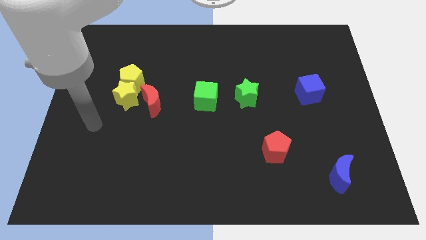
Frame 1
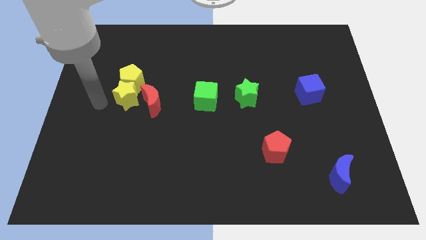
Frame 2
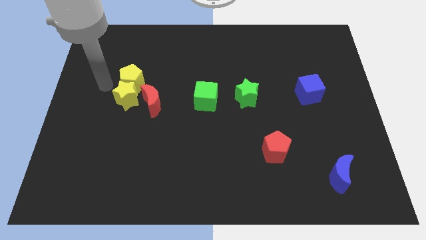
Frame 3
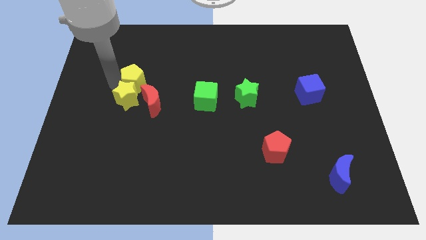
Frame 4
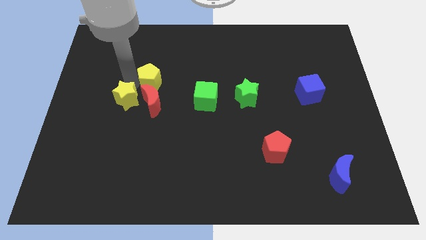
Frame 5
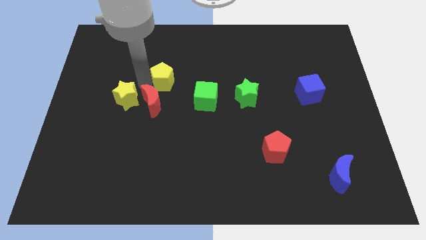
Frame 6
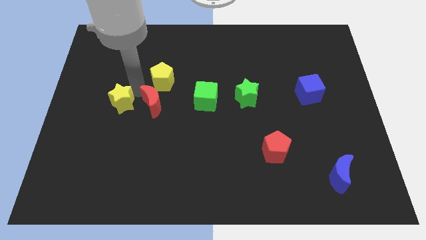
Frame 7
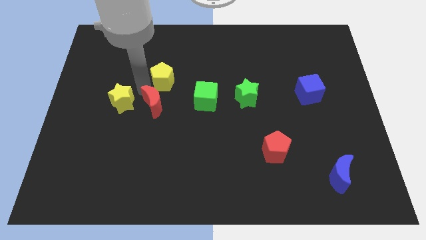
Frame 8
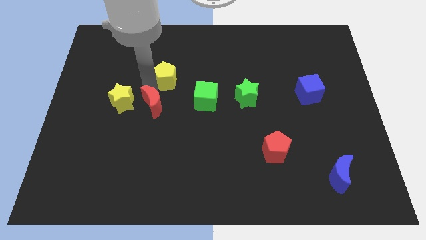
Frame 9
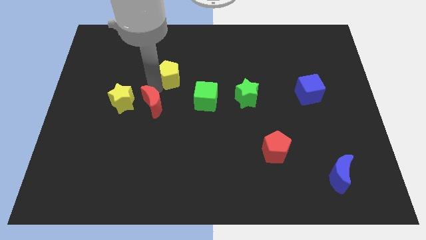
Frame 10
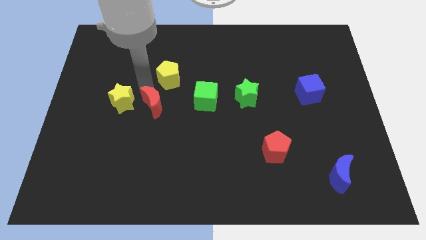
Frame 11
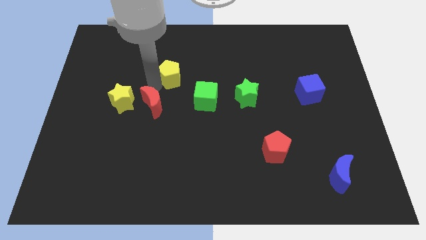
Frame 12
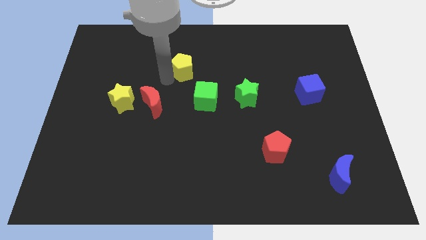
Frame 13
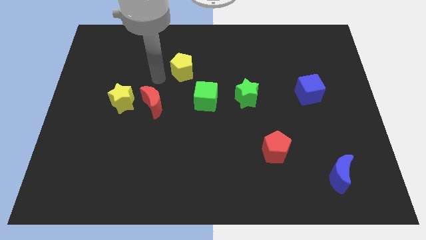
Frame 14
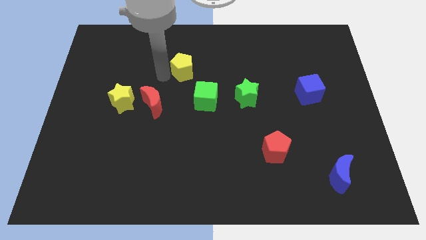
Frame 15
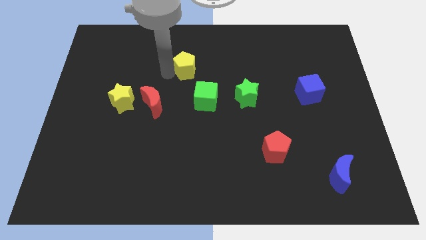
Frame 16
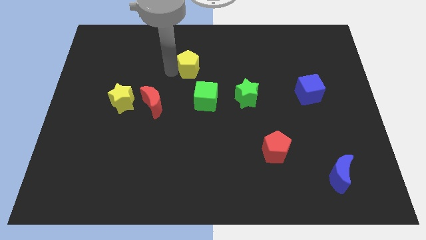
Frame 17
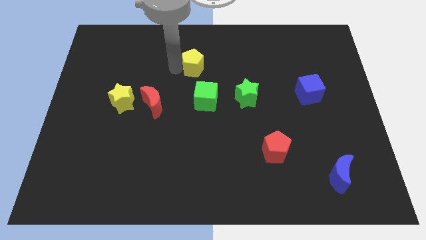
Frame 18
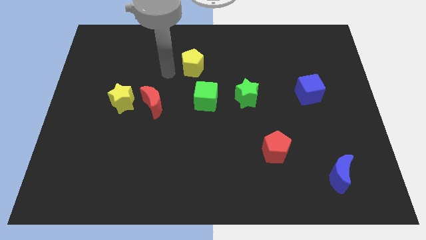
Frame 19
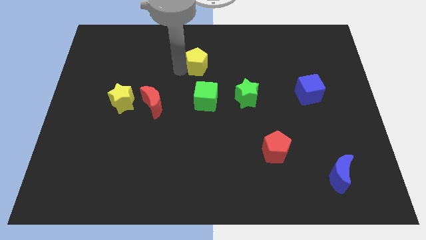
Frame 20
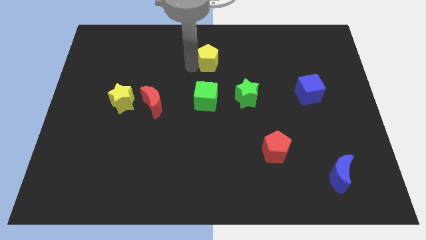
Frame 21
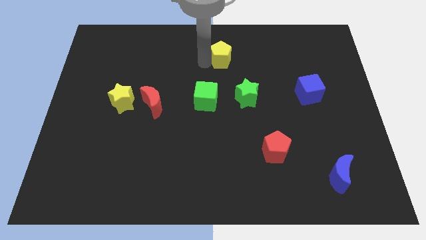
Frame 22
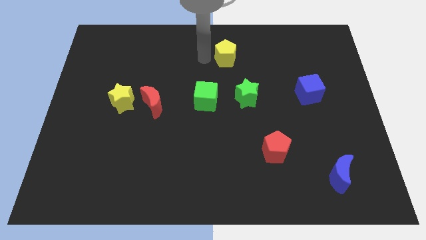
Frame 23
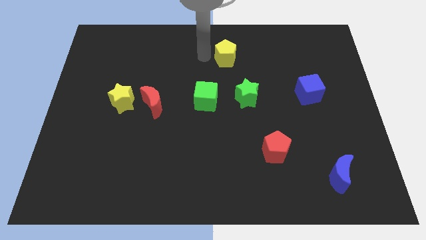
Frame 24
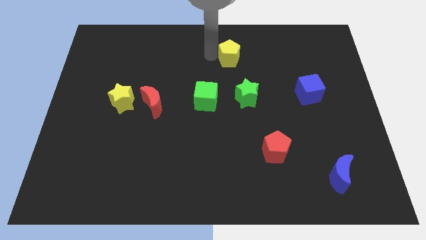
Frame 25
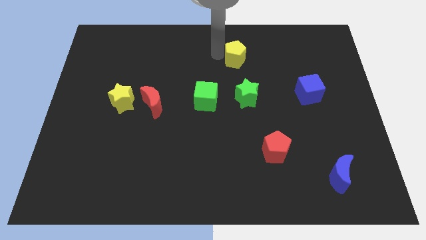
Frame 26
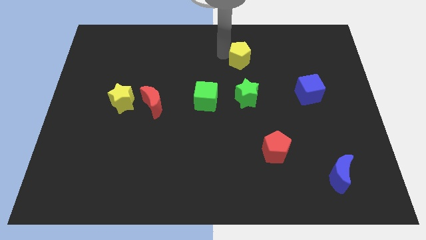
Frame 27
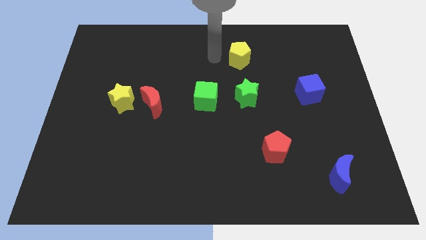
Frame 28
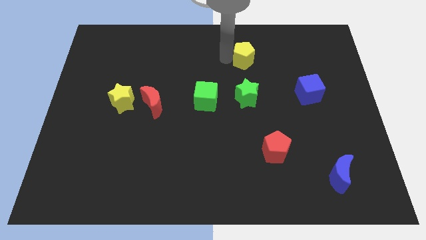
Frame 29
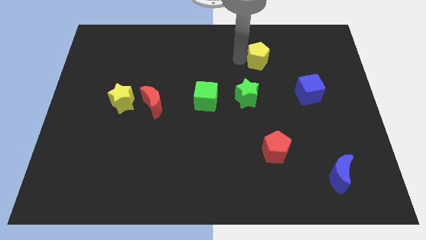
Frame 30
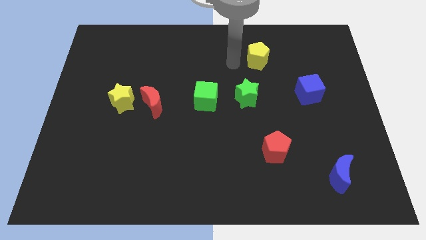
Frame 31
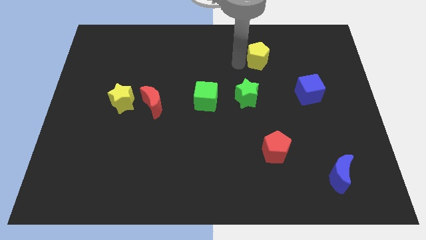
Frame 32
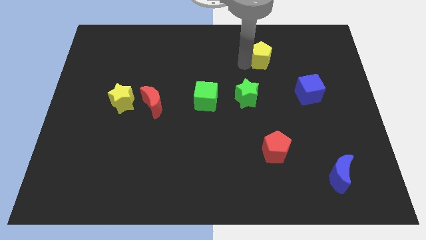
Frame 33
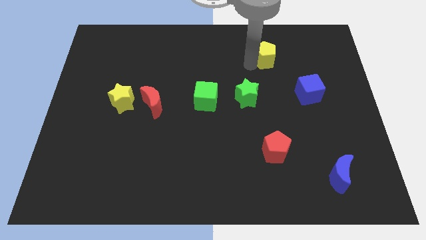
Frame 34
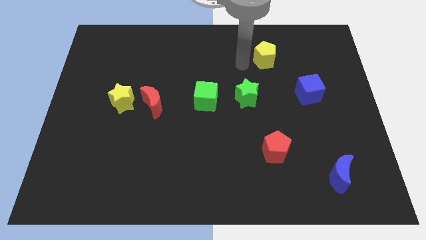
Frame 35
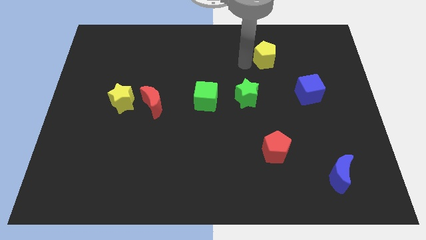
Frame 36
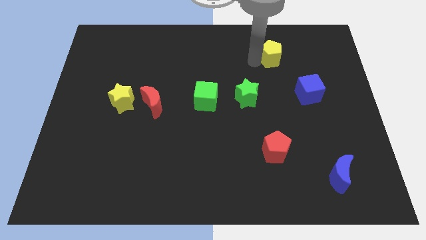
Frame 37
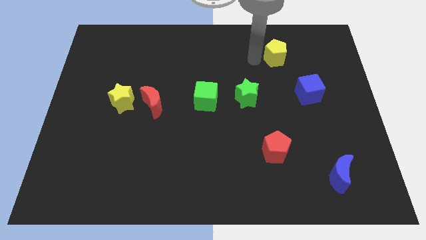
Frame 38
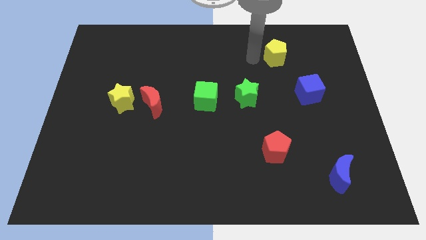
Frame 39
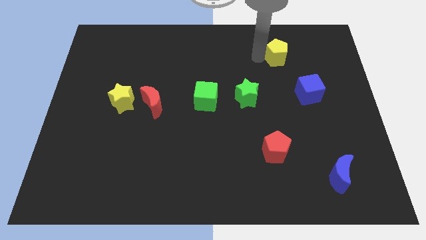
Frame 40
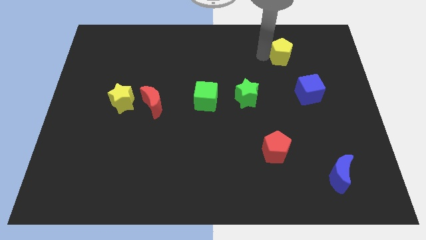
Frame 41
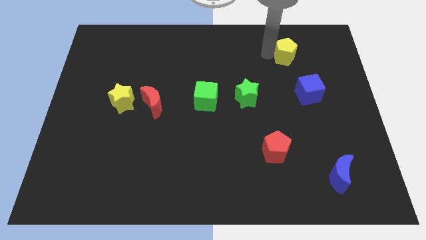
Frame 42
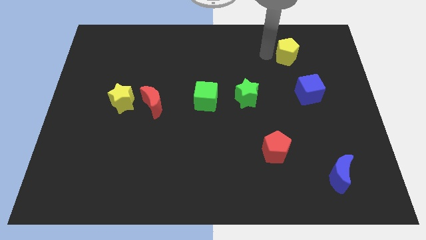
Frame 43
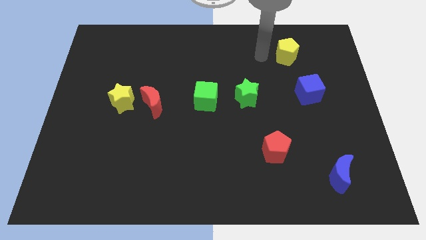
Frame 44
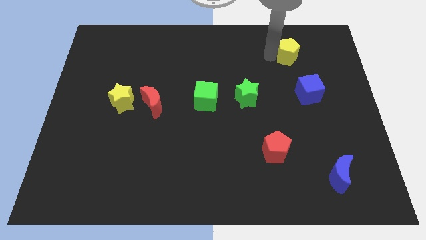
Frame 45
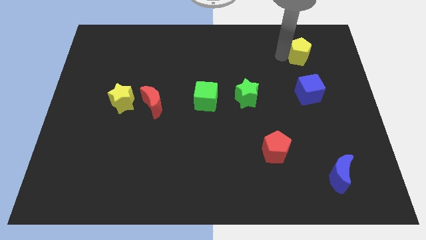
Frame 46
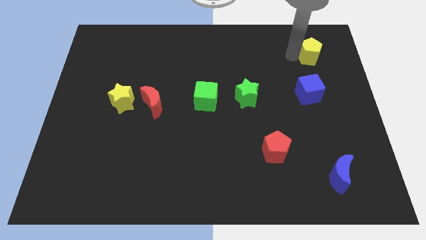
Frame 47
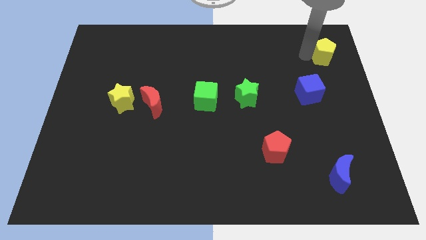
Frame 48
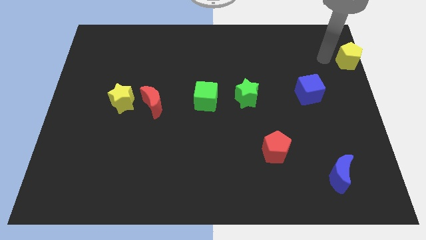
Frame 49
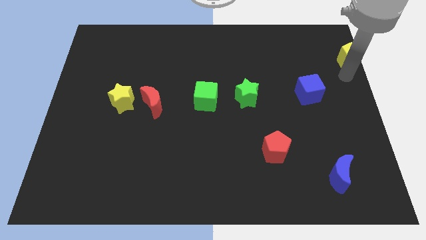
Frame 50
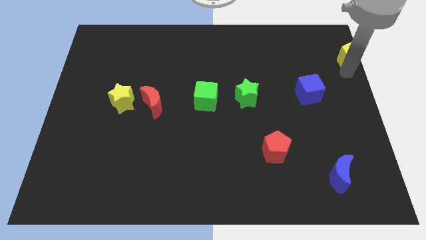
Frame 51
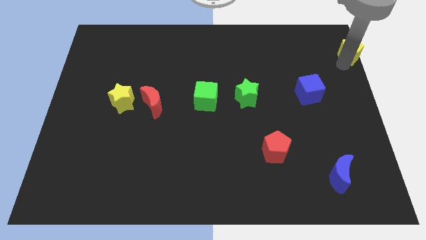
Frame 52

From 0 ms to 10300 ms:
put the yellow pentagon to the top right corner

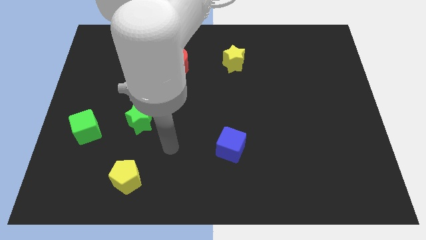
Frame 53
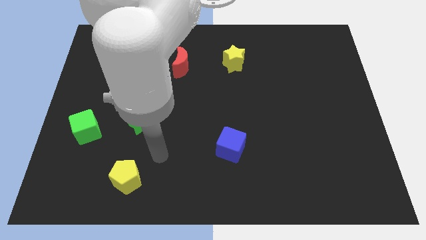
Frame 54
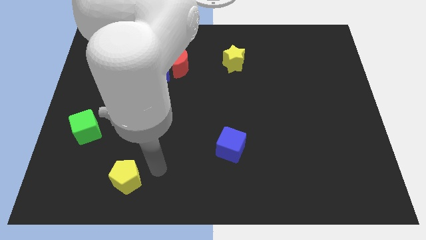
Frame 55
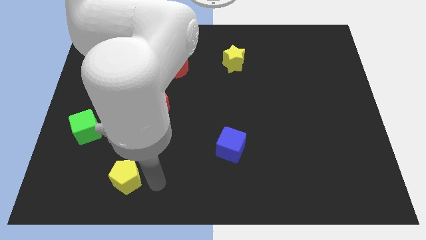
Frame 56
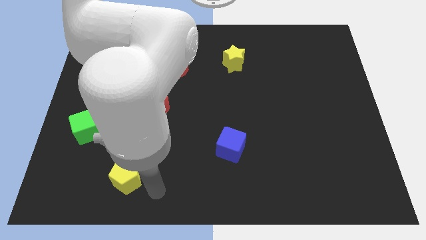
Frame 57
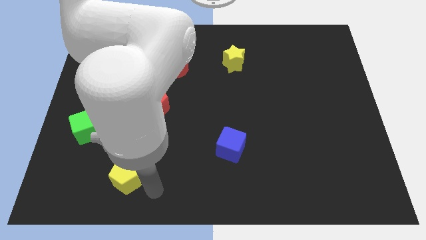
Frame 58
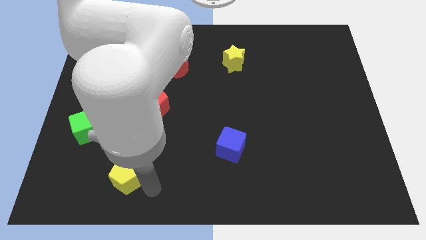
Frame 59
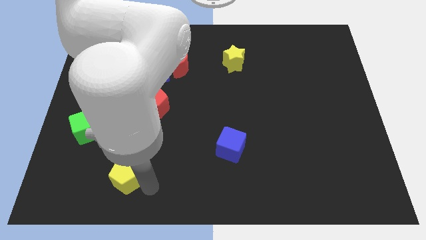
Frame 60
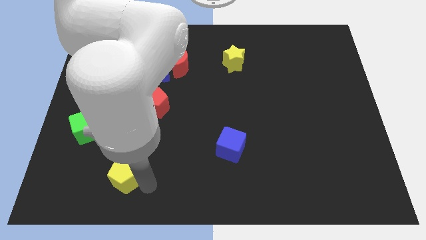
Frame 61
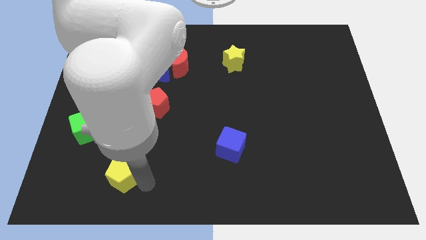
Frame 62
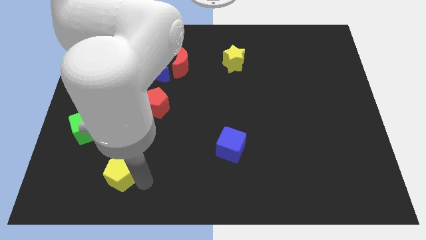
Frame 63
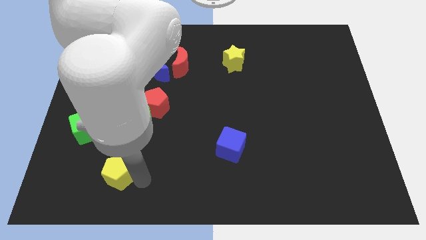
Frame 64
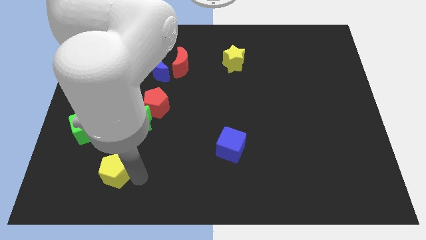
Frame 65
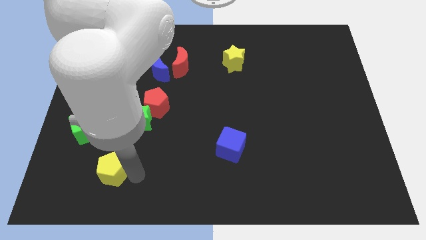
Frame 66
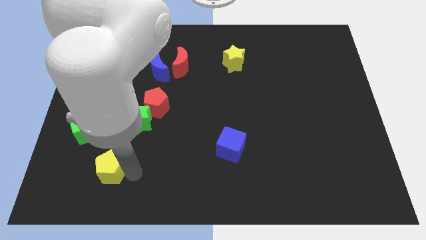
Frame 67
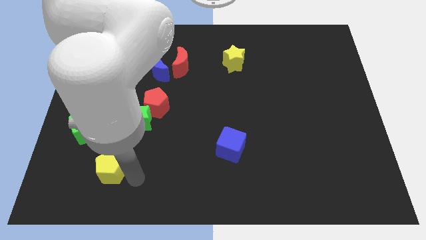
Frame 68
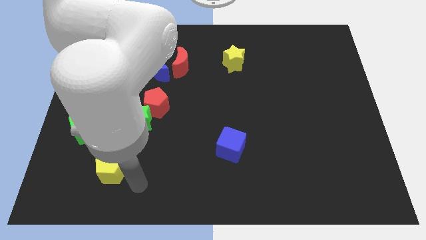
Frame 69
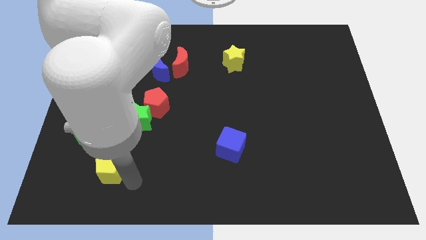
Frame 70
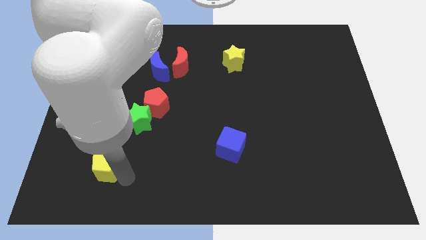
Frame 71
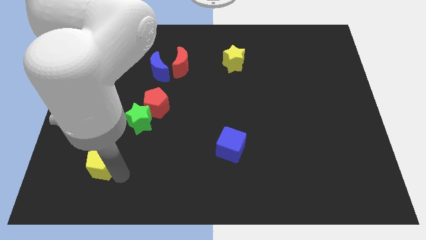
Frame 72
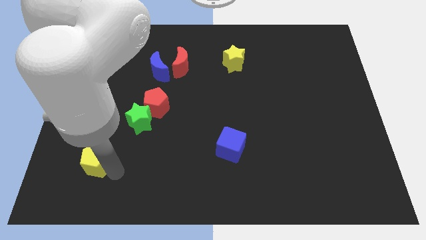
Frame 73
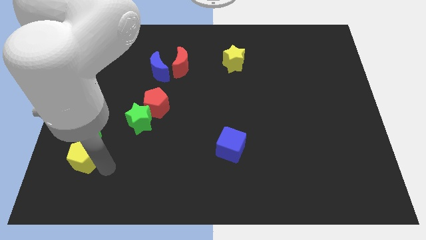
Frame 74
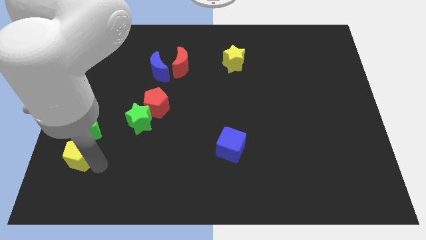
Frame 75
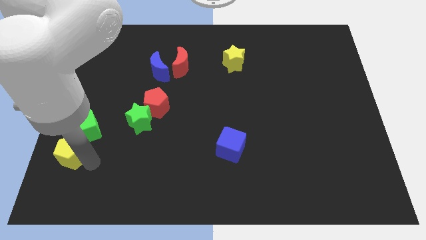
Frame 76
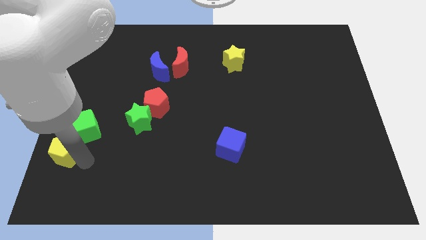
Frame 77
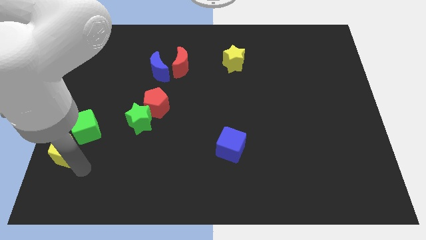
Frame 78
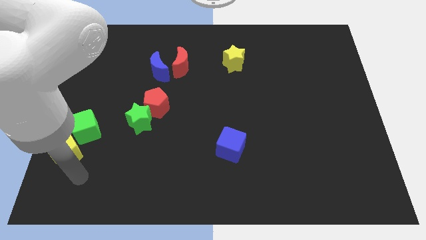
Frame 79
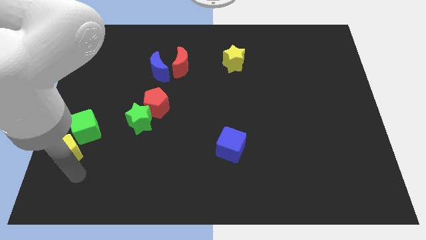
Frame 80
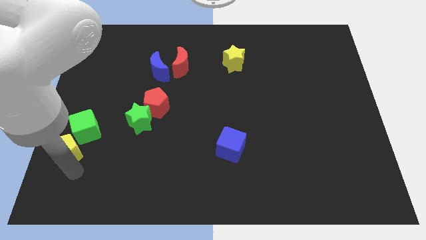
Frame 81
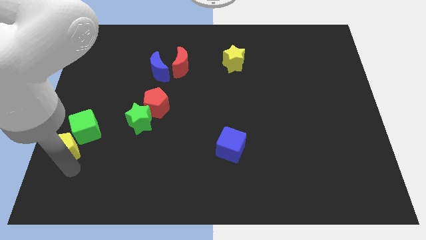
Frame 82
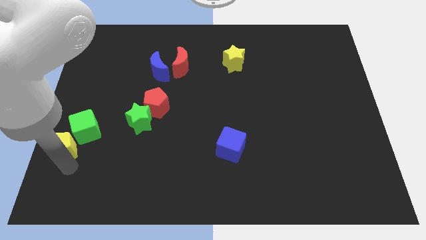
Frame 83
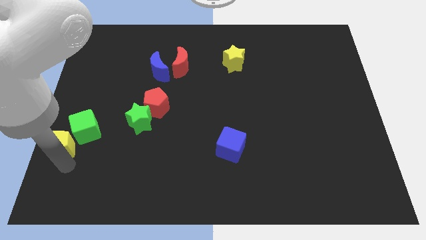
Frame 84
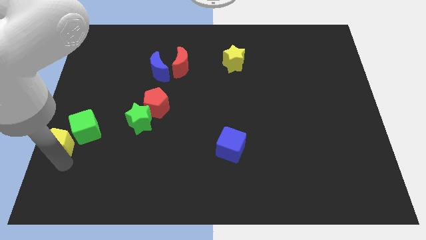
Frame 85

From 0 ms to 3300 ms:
slide the yellow pentagon to the left side
